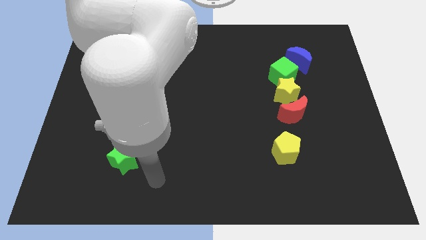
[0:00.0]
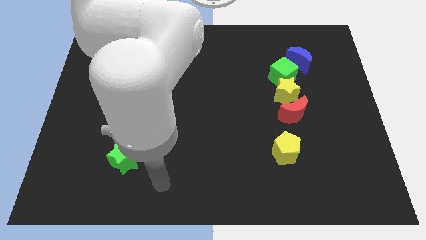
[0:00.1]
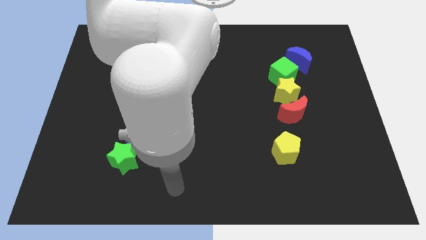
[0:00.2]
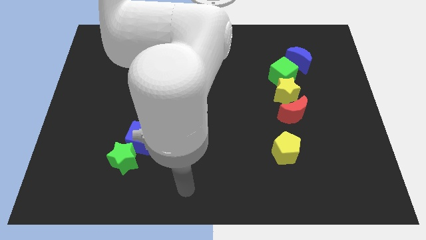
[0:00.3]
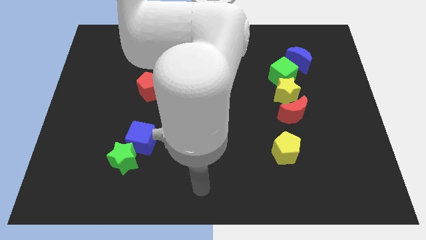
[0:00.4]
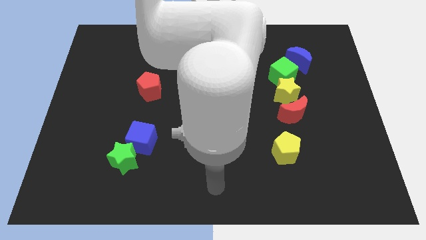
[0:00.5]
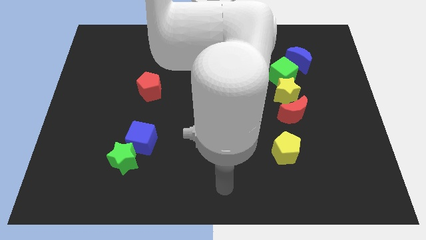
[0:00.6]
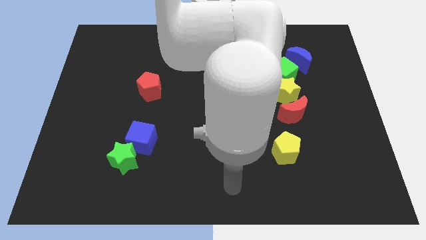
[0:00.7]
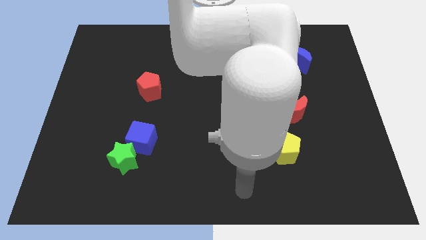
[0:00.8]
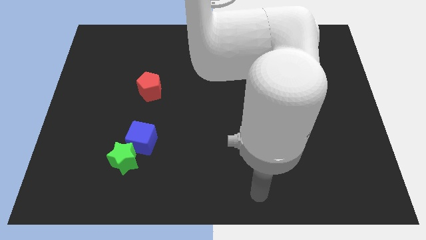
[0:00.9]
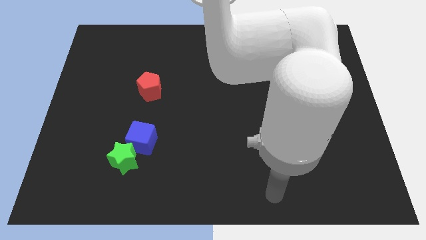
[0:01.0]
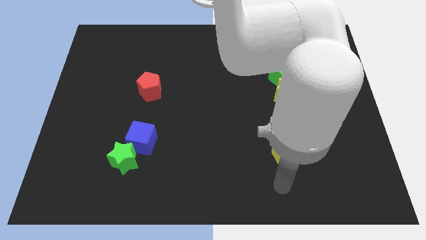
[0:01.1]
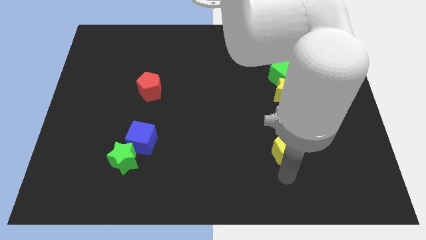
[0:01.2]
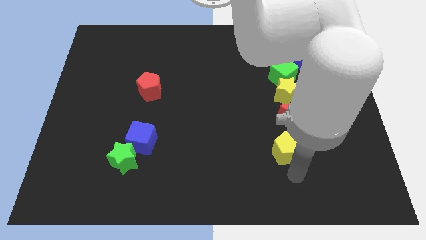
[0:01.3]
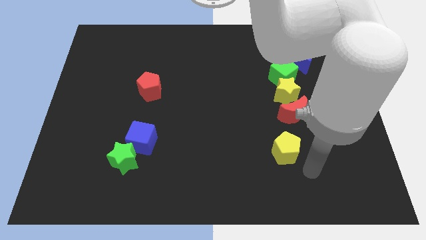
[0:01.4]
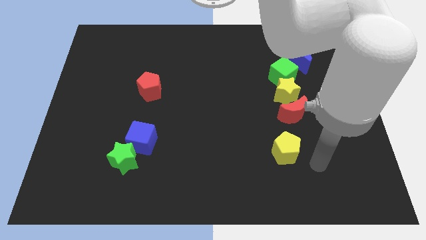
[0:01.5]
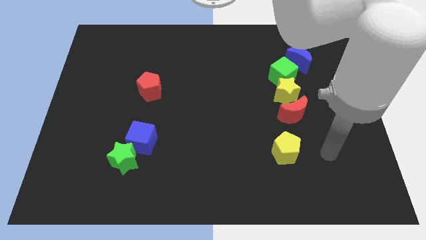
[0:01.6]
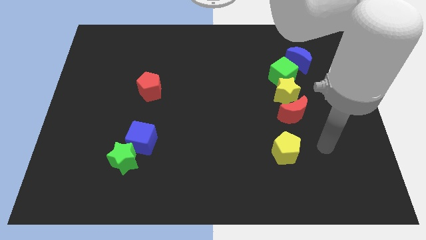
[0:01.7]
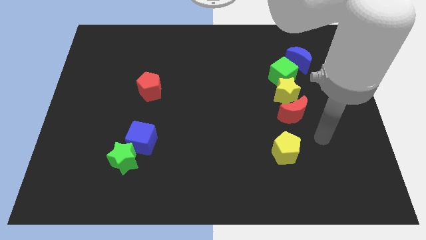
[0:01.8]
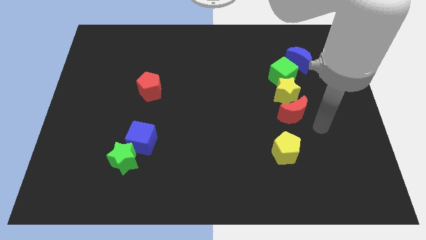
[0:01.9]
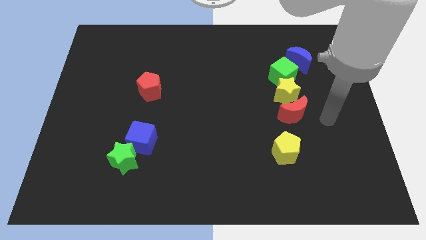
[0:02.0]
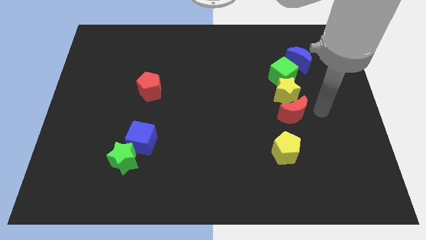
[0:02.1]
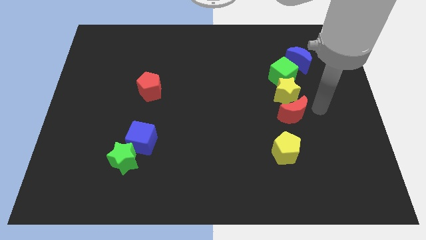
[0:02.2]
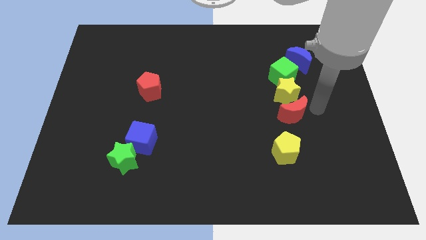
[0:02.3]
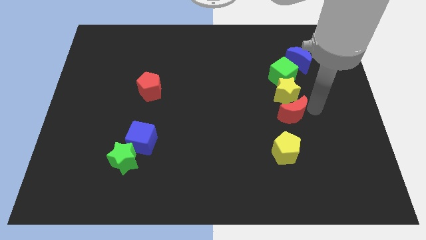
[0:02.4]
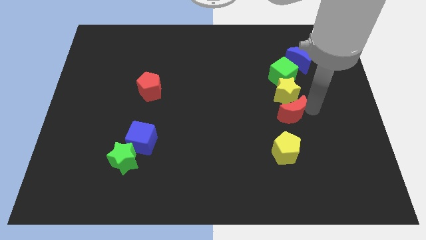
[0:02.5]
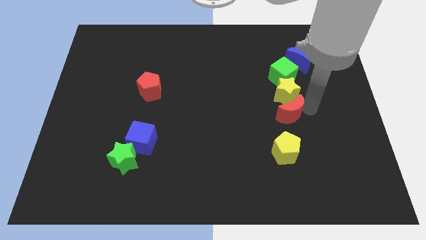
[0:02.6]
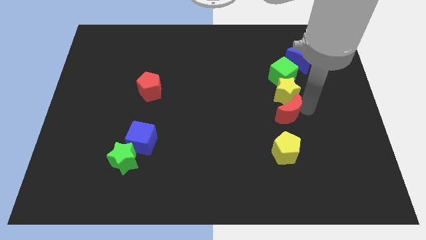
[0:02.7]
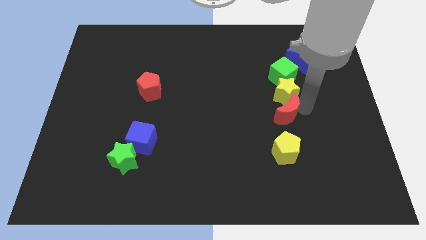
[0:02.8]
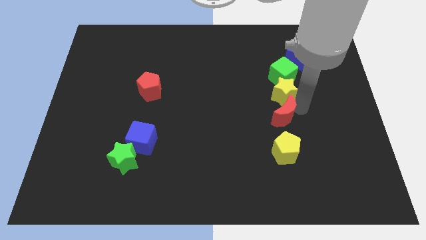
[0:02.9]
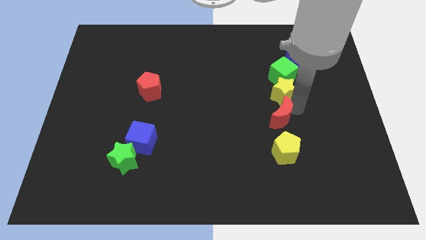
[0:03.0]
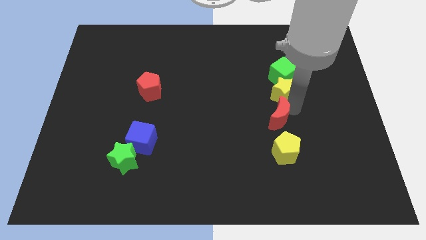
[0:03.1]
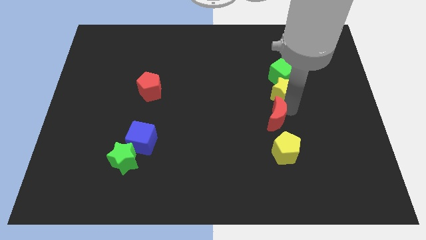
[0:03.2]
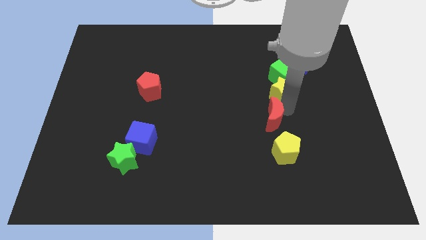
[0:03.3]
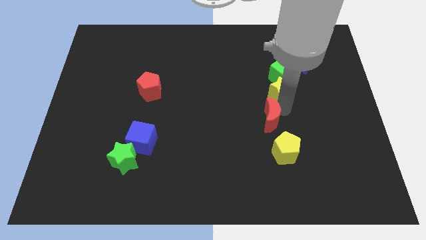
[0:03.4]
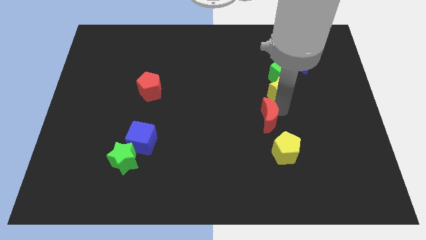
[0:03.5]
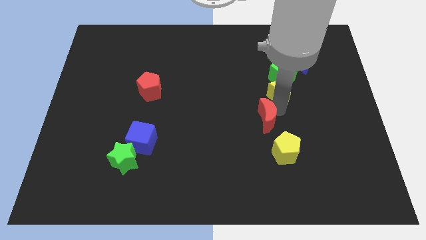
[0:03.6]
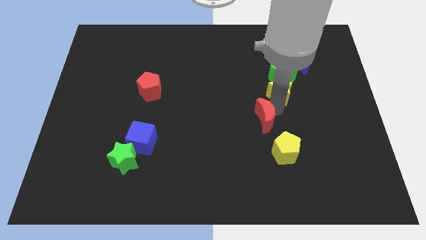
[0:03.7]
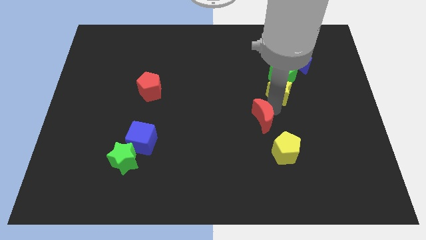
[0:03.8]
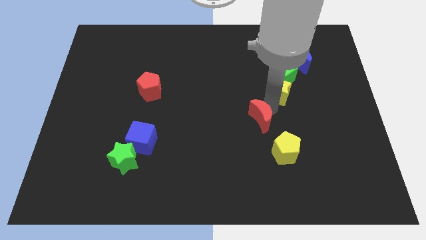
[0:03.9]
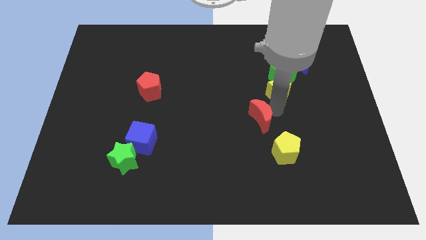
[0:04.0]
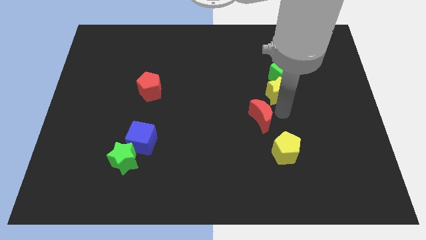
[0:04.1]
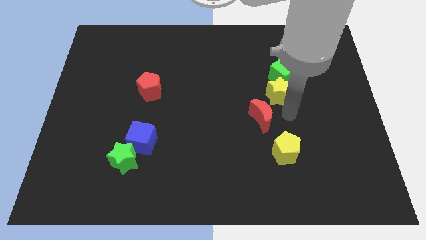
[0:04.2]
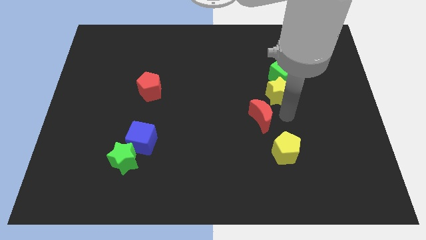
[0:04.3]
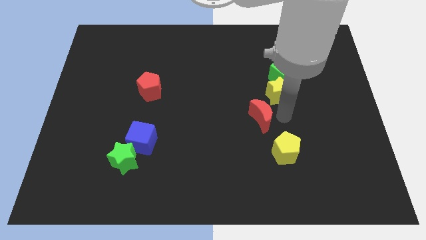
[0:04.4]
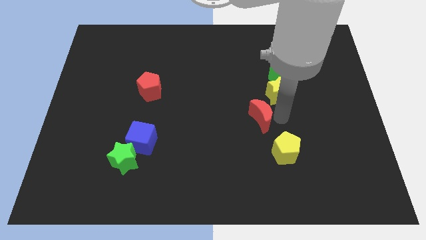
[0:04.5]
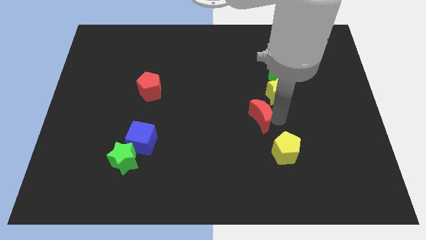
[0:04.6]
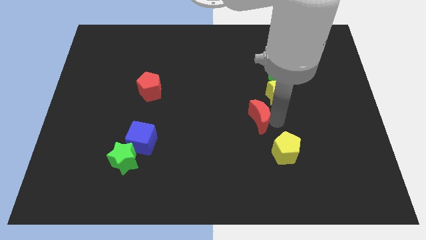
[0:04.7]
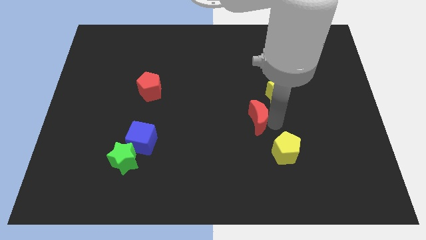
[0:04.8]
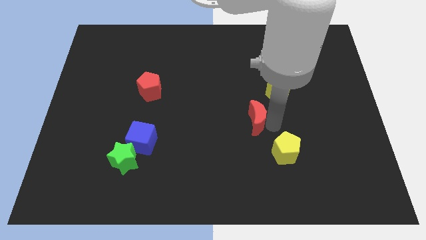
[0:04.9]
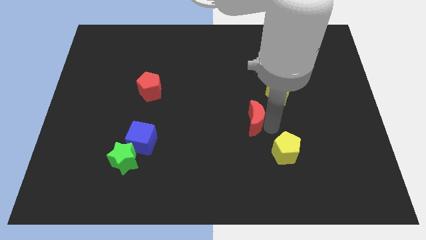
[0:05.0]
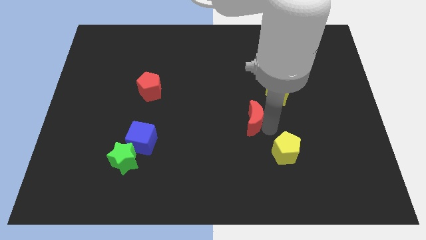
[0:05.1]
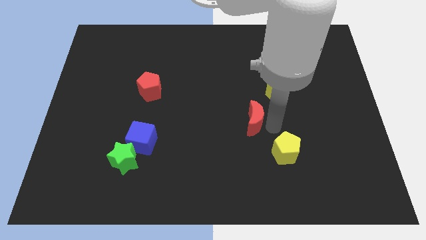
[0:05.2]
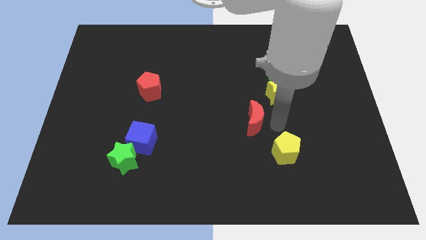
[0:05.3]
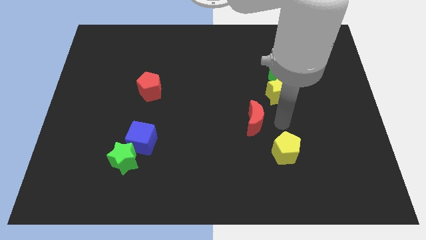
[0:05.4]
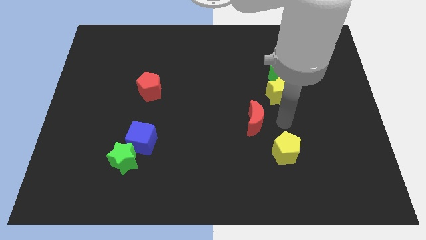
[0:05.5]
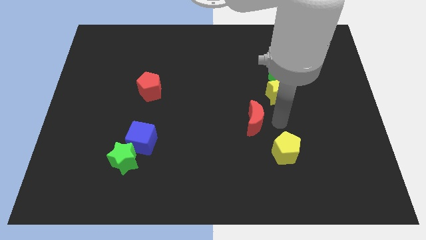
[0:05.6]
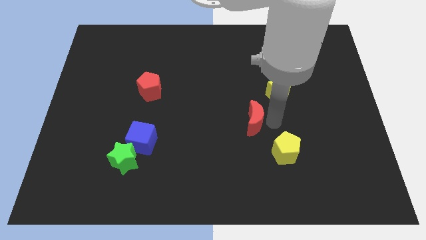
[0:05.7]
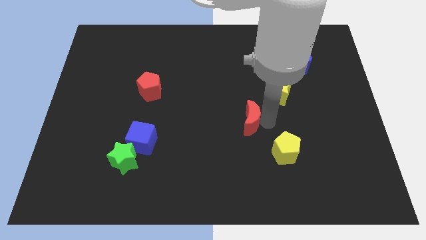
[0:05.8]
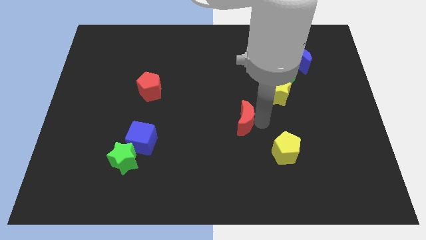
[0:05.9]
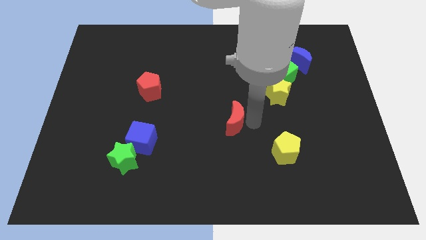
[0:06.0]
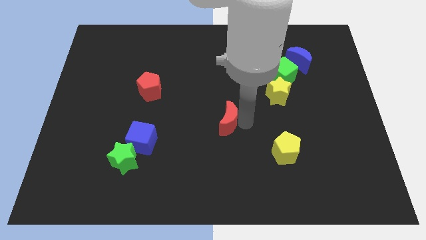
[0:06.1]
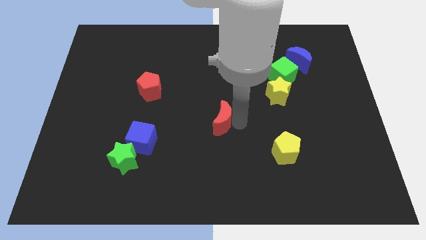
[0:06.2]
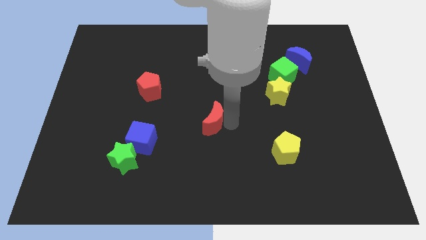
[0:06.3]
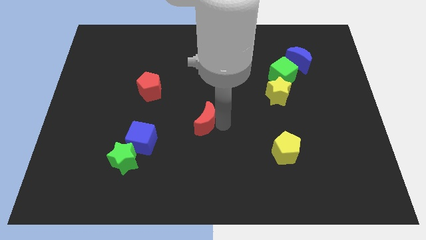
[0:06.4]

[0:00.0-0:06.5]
move the red moon to the left

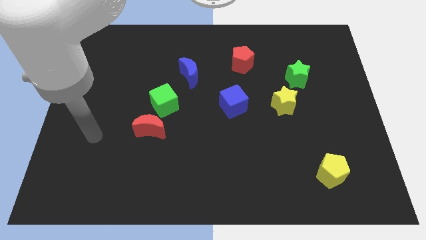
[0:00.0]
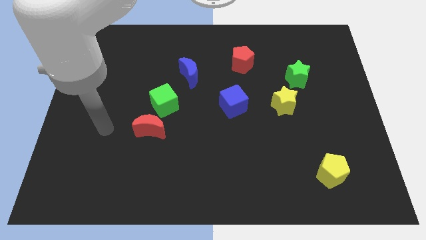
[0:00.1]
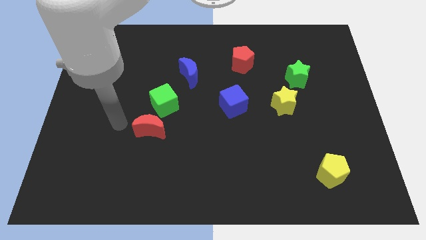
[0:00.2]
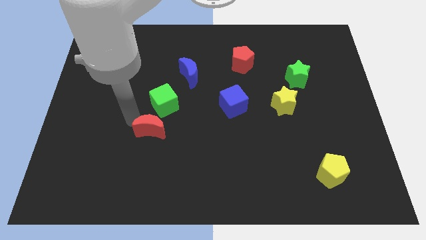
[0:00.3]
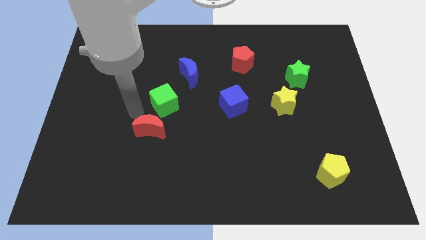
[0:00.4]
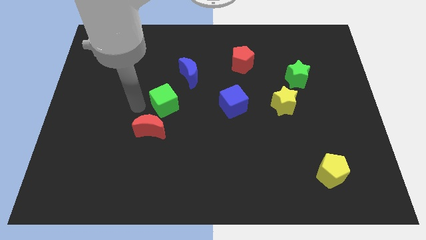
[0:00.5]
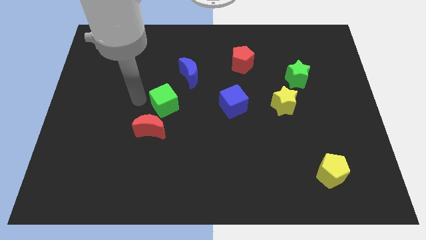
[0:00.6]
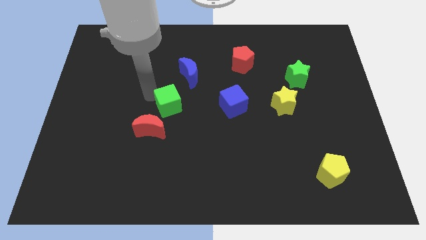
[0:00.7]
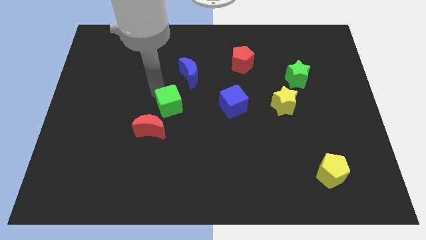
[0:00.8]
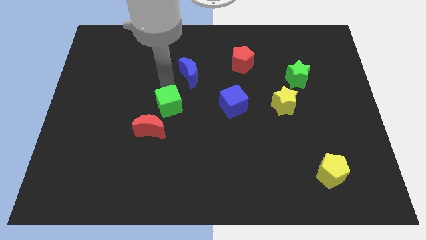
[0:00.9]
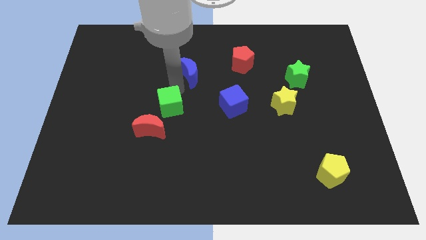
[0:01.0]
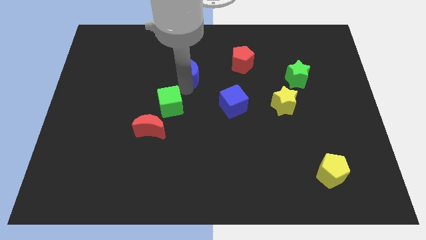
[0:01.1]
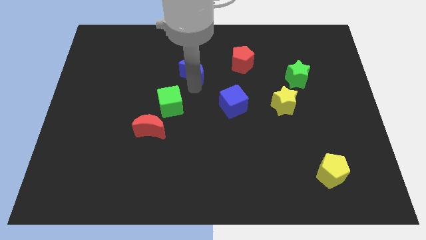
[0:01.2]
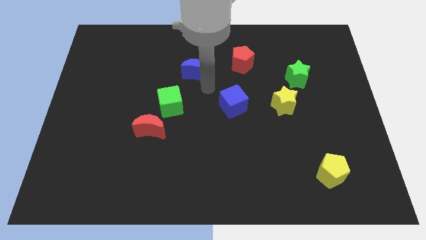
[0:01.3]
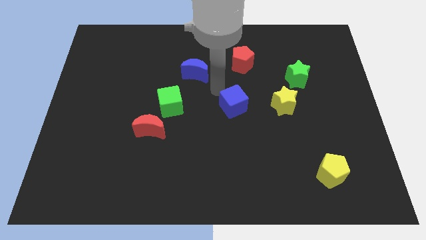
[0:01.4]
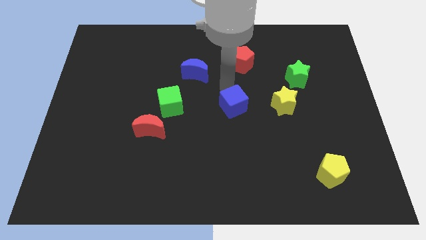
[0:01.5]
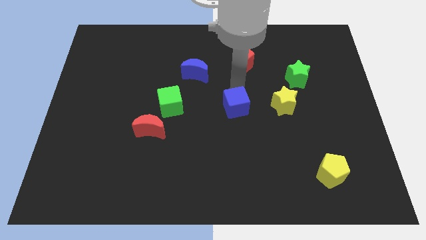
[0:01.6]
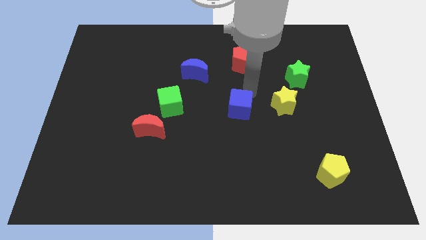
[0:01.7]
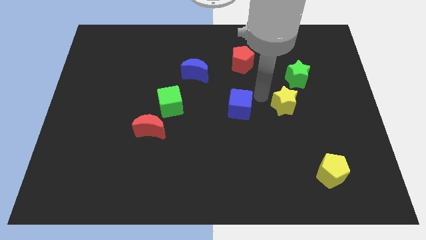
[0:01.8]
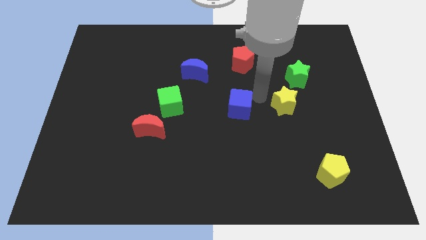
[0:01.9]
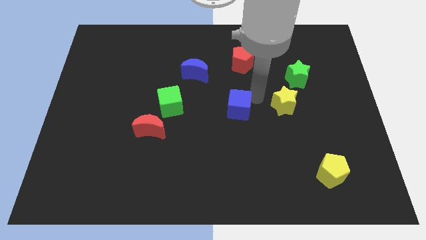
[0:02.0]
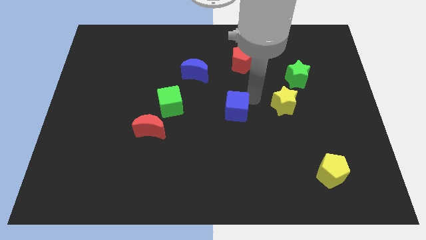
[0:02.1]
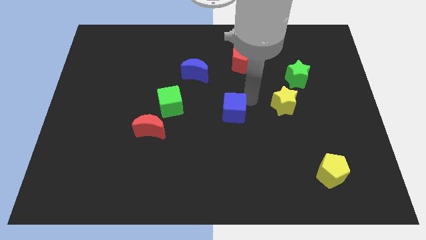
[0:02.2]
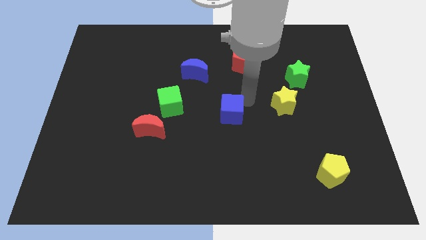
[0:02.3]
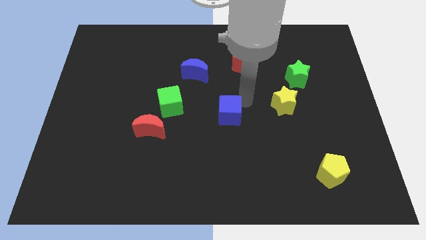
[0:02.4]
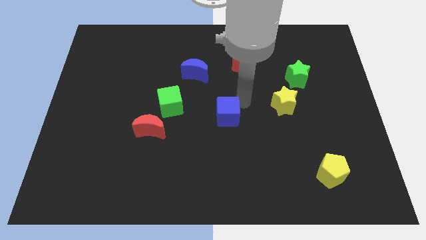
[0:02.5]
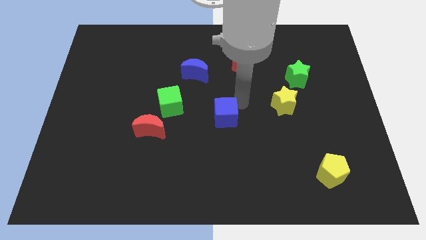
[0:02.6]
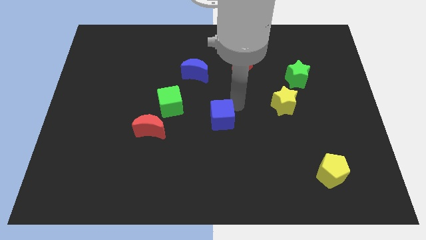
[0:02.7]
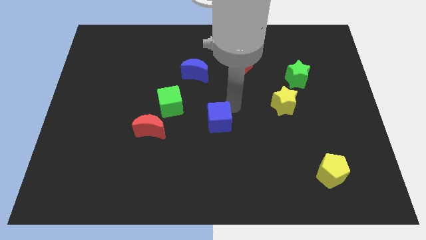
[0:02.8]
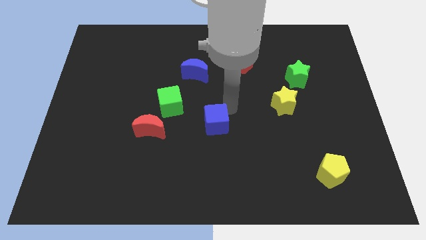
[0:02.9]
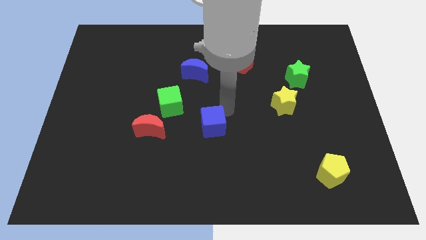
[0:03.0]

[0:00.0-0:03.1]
slightly move the blue cube diagonally down and left
